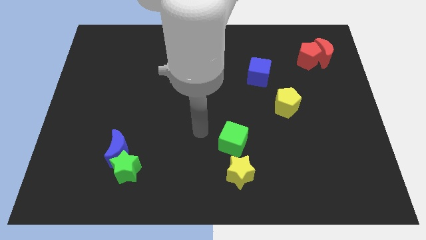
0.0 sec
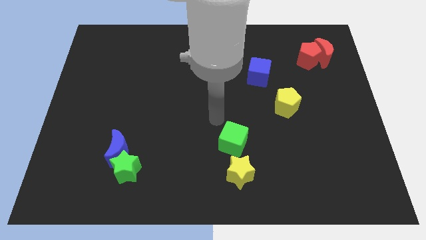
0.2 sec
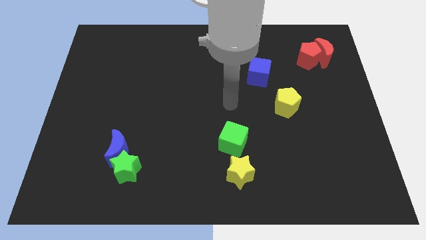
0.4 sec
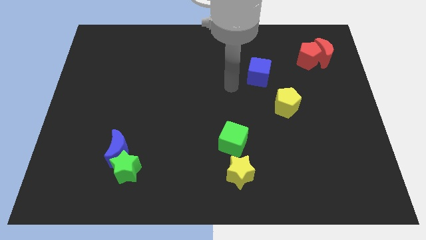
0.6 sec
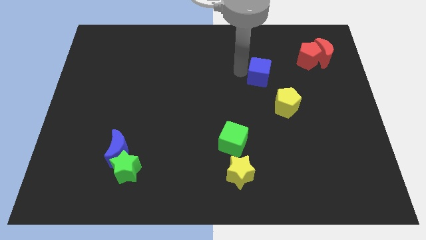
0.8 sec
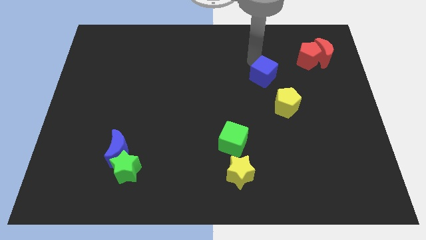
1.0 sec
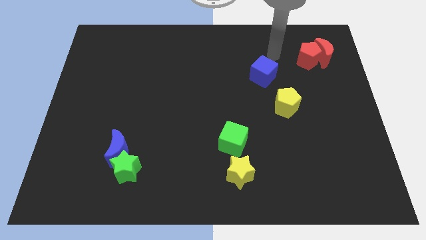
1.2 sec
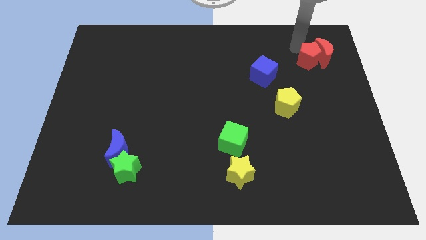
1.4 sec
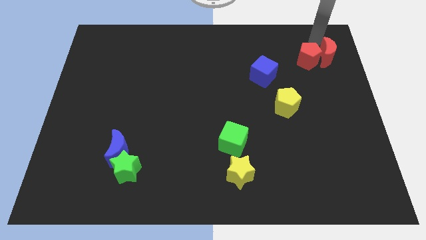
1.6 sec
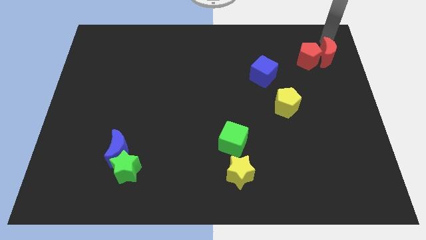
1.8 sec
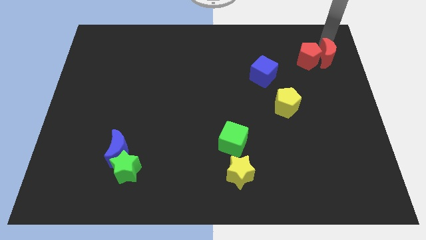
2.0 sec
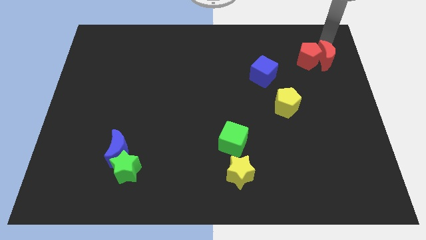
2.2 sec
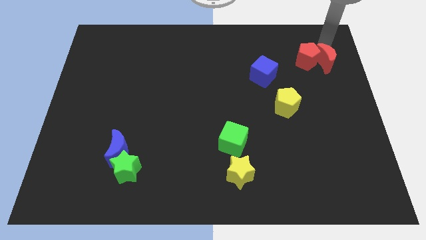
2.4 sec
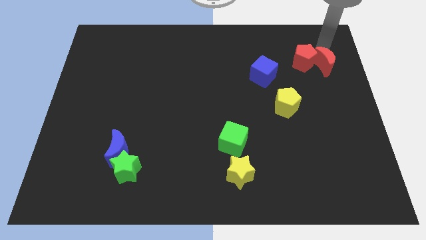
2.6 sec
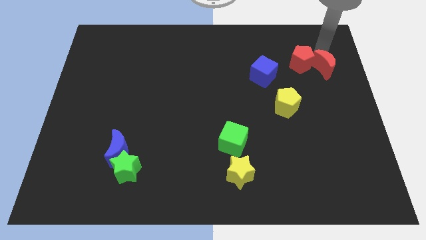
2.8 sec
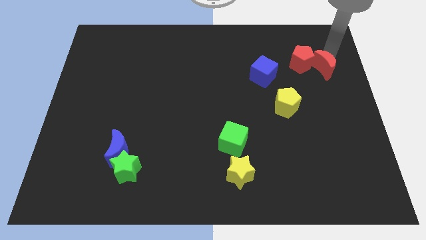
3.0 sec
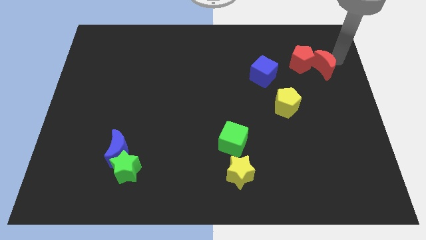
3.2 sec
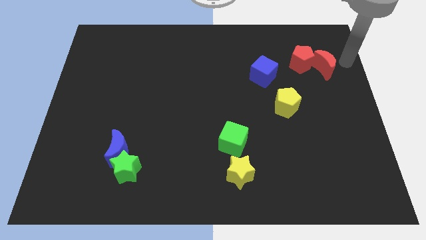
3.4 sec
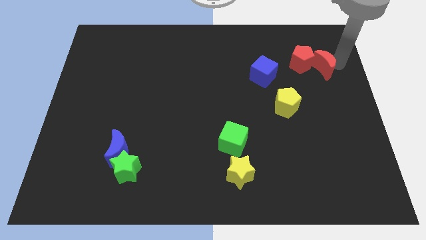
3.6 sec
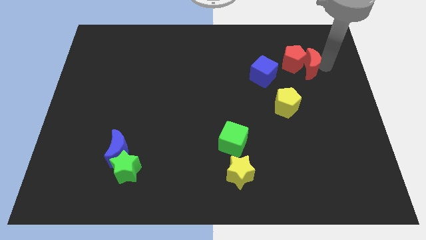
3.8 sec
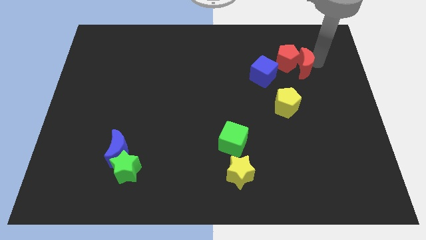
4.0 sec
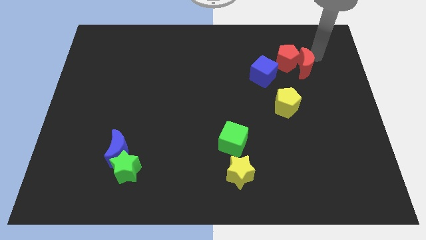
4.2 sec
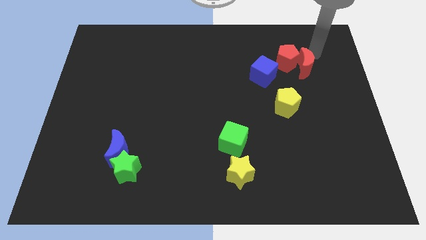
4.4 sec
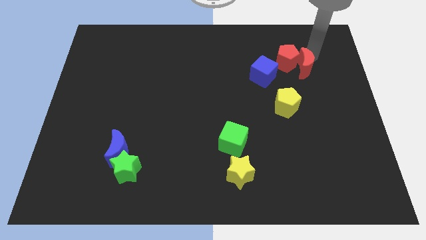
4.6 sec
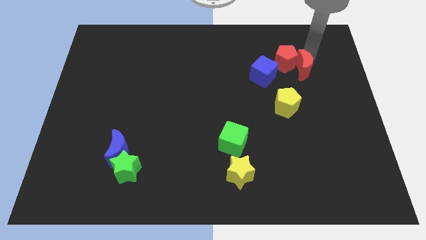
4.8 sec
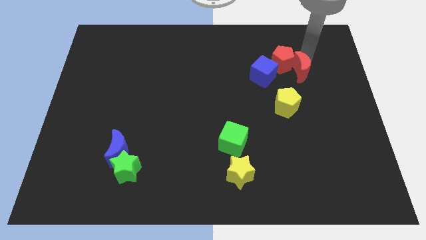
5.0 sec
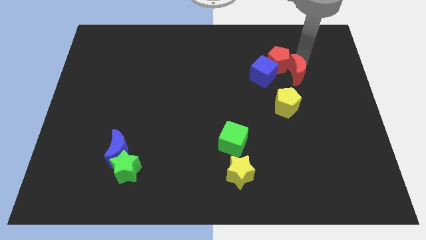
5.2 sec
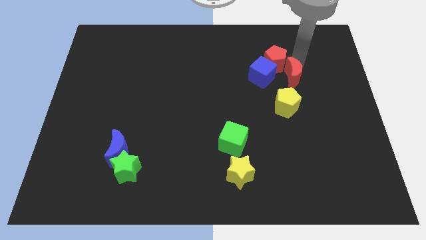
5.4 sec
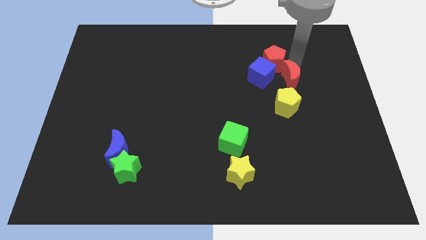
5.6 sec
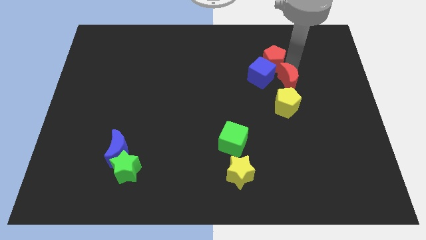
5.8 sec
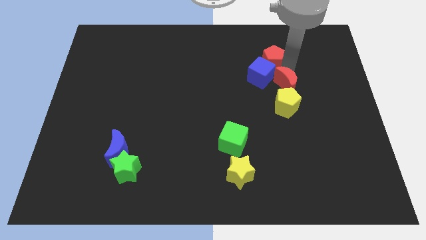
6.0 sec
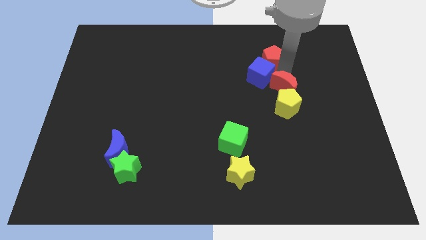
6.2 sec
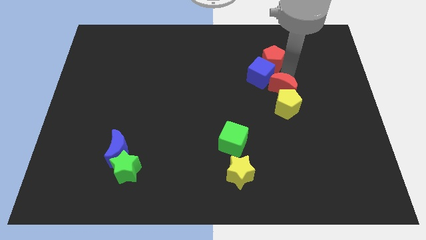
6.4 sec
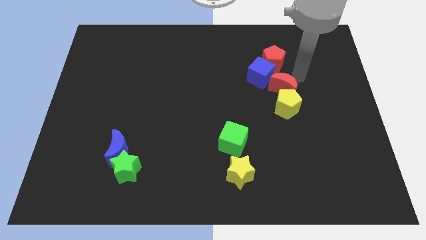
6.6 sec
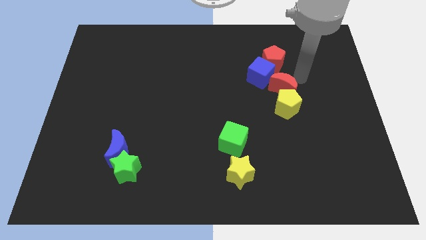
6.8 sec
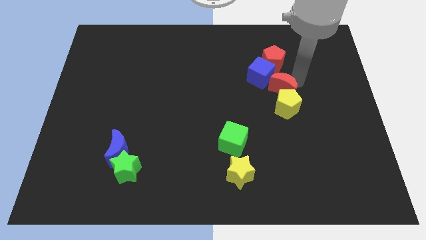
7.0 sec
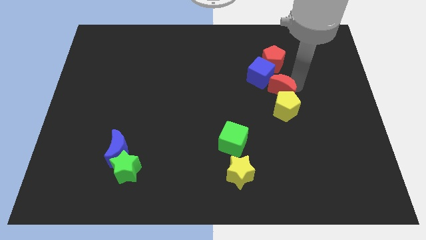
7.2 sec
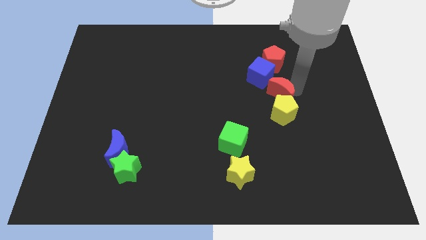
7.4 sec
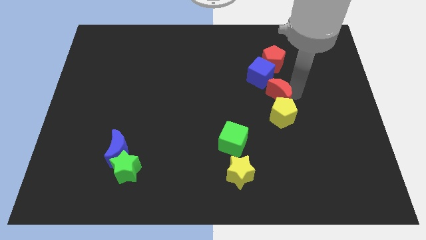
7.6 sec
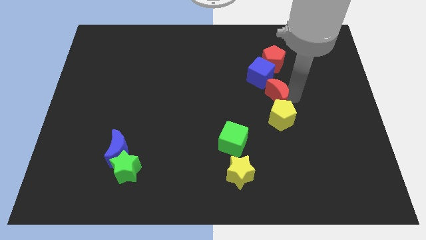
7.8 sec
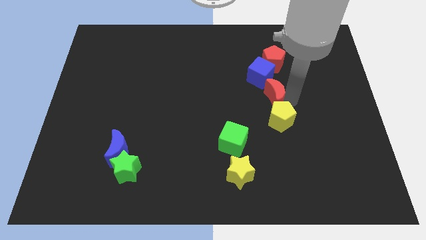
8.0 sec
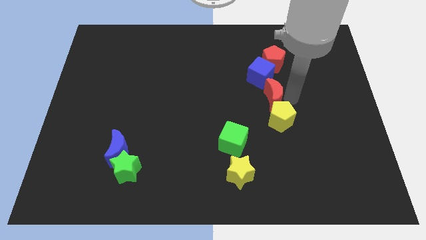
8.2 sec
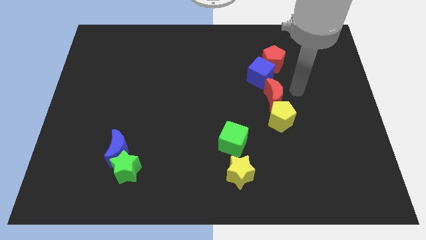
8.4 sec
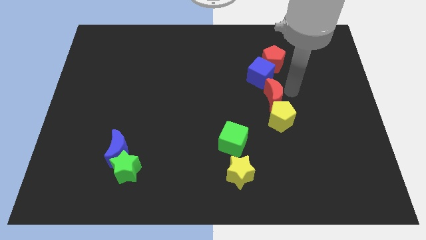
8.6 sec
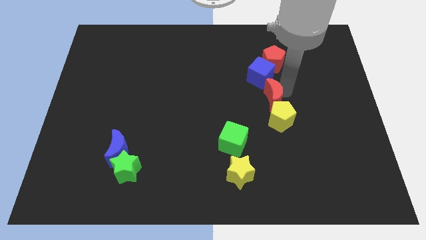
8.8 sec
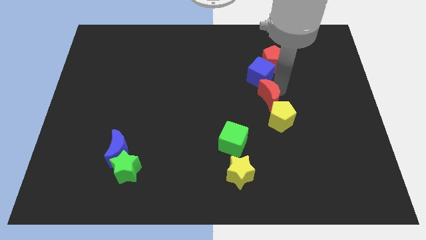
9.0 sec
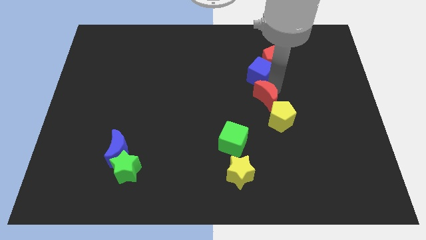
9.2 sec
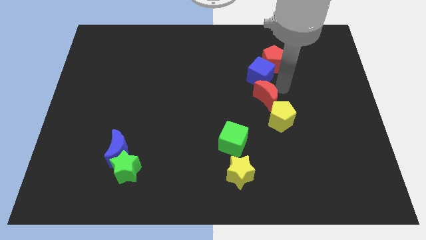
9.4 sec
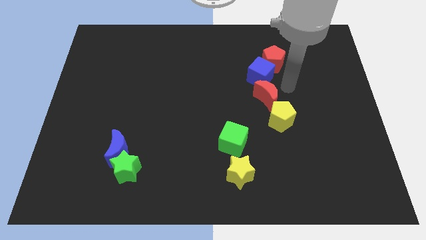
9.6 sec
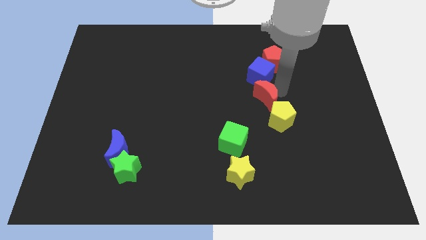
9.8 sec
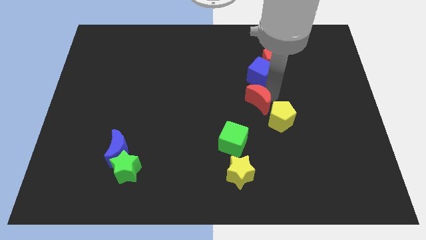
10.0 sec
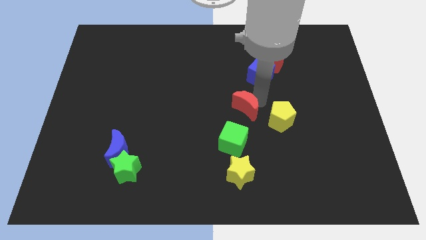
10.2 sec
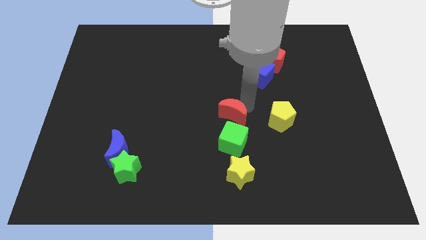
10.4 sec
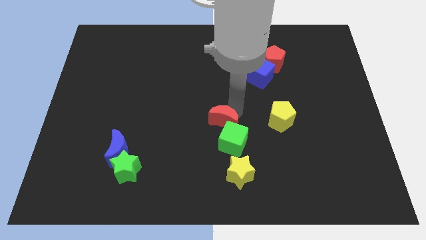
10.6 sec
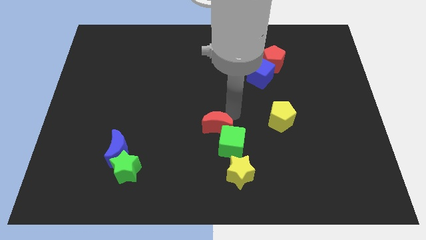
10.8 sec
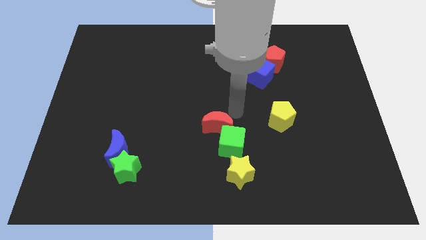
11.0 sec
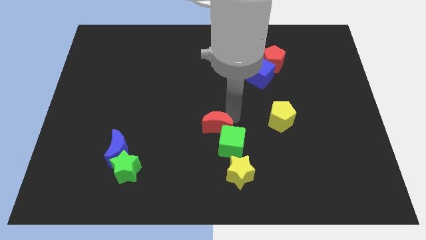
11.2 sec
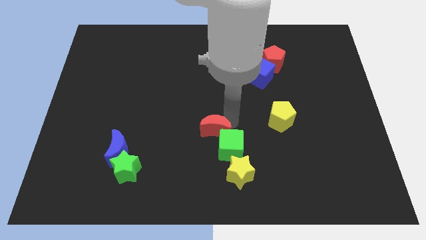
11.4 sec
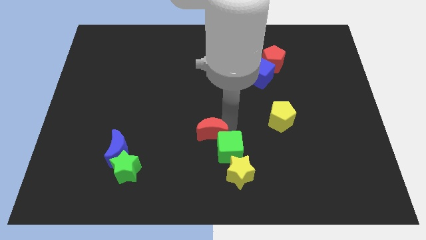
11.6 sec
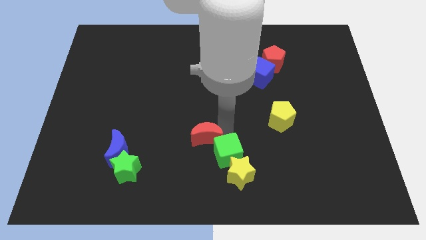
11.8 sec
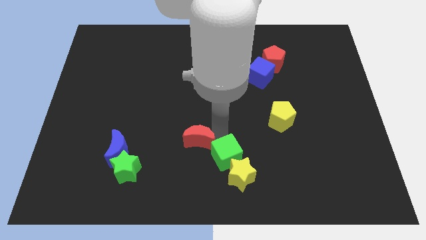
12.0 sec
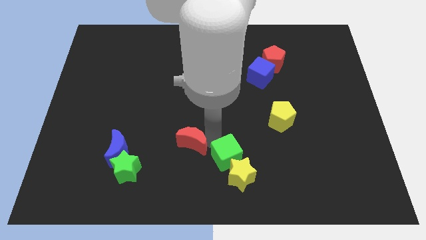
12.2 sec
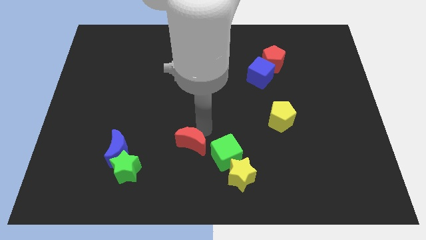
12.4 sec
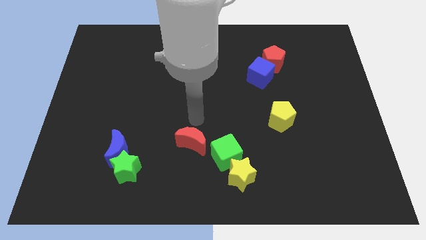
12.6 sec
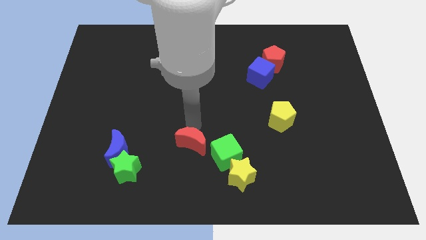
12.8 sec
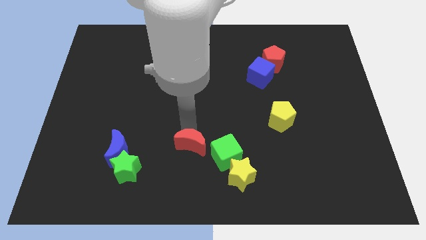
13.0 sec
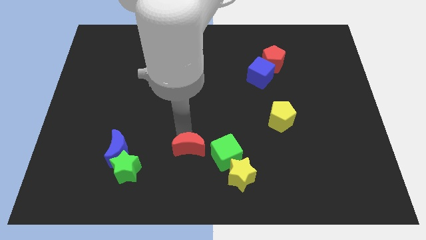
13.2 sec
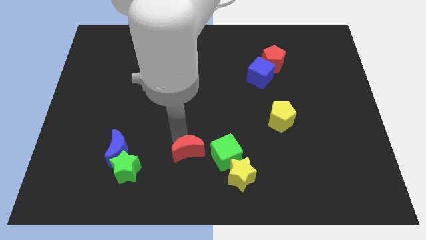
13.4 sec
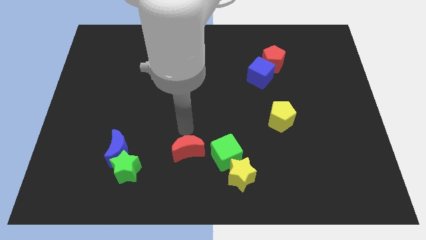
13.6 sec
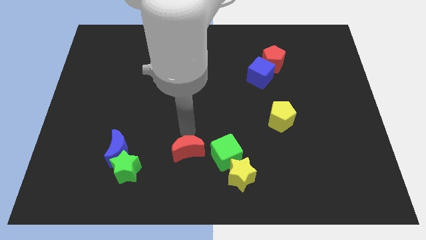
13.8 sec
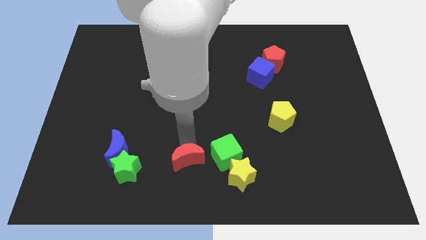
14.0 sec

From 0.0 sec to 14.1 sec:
push the red moon to the left of the yellow star
